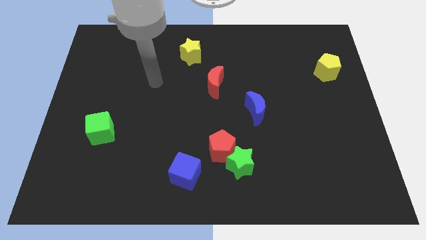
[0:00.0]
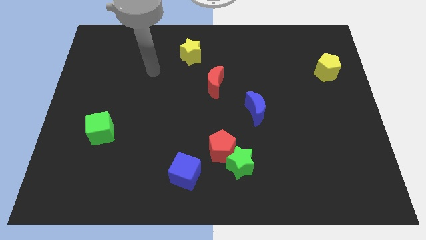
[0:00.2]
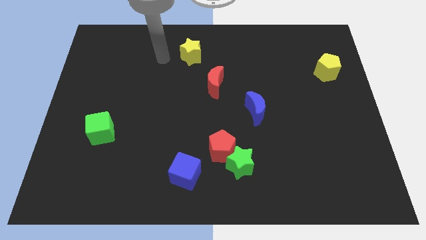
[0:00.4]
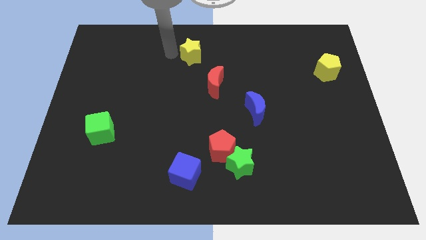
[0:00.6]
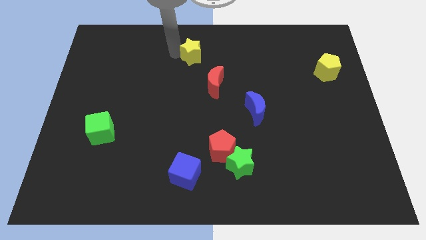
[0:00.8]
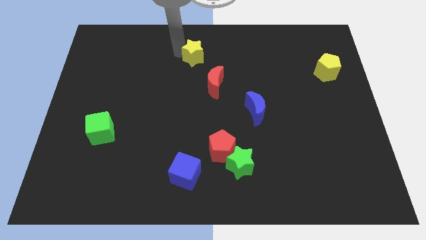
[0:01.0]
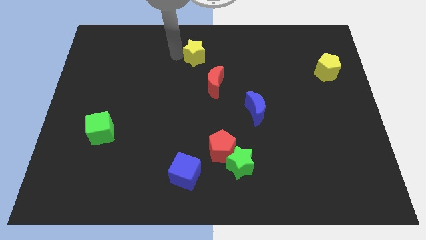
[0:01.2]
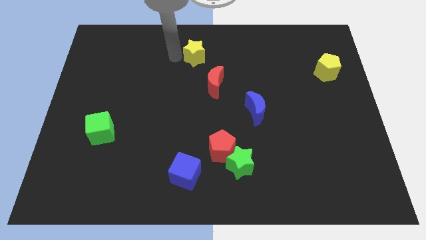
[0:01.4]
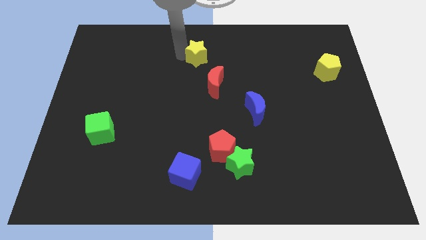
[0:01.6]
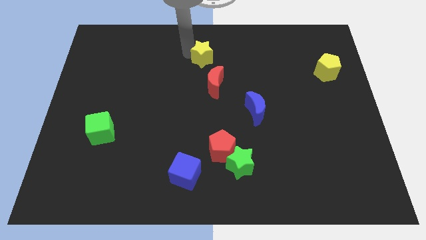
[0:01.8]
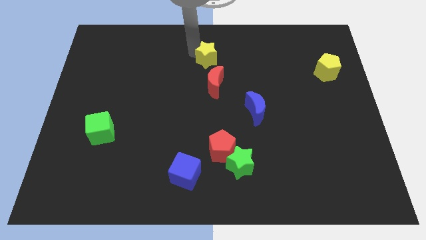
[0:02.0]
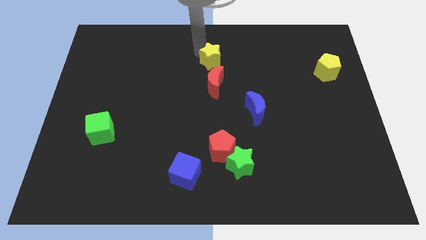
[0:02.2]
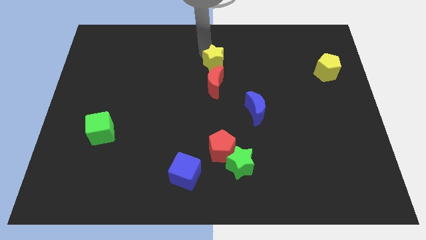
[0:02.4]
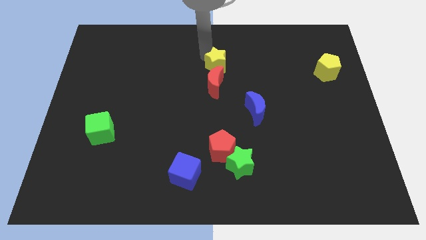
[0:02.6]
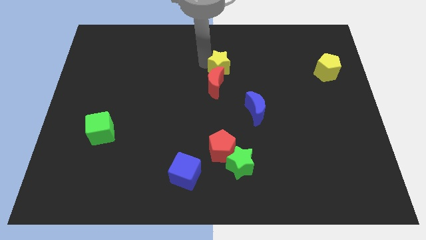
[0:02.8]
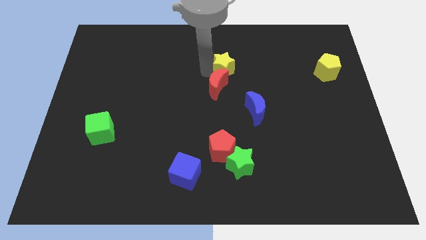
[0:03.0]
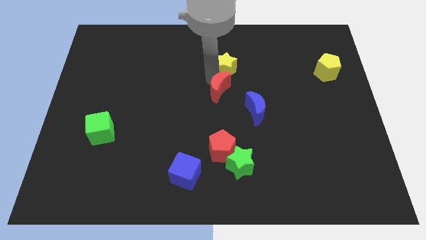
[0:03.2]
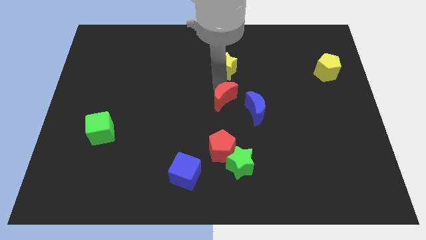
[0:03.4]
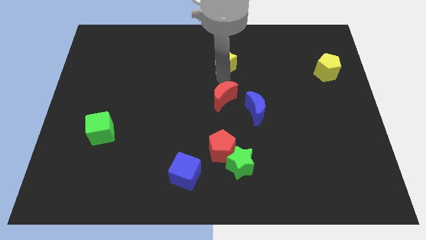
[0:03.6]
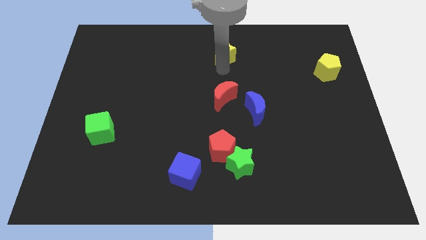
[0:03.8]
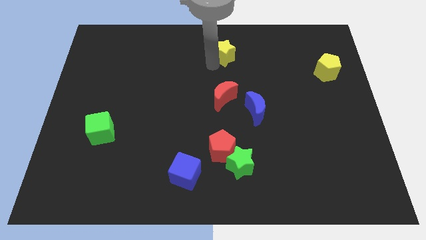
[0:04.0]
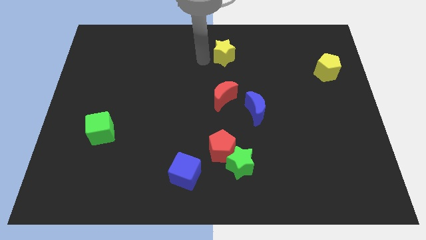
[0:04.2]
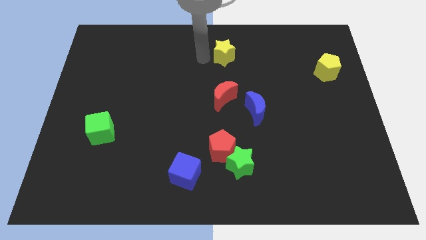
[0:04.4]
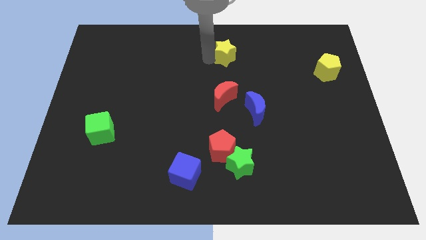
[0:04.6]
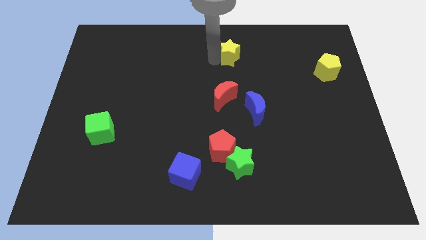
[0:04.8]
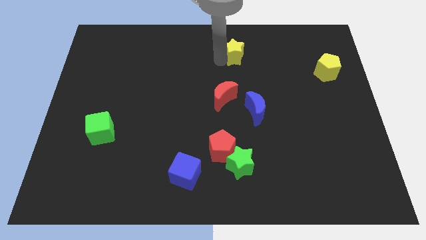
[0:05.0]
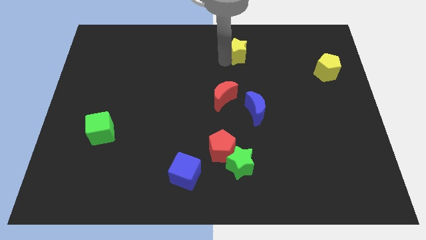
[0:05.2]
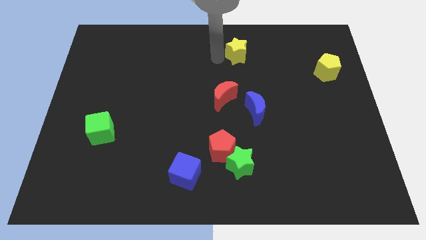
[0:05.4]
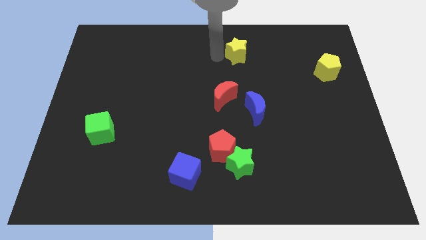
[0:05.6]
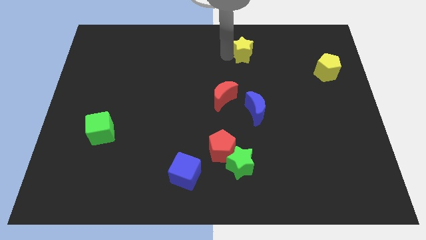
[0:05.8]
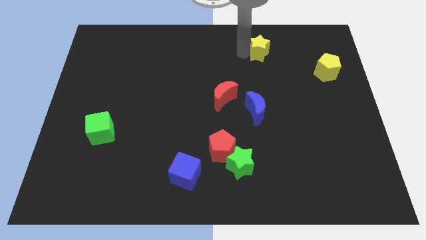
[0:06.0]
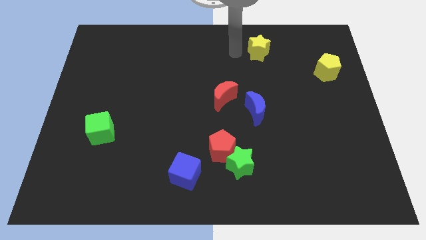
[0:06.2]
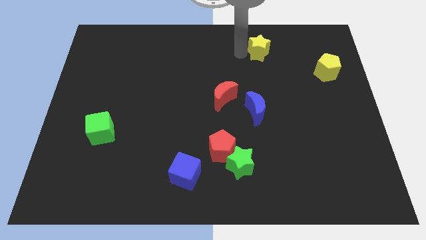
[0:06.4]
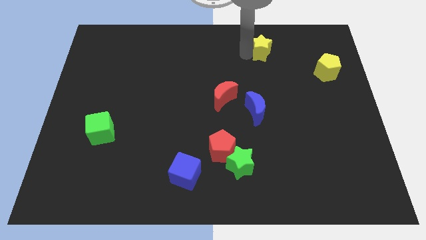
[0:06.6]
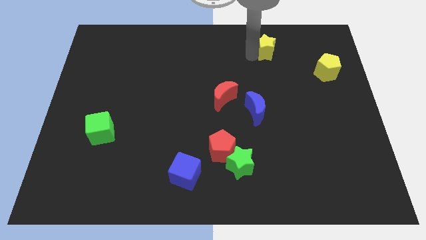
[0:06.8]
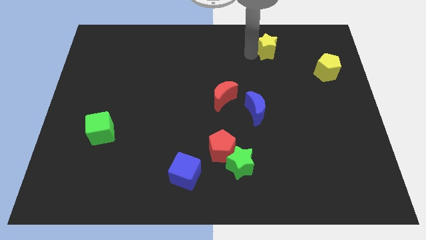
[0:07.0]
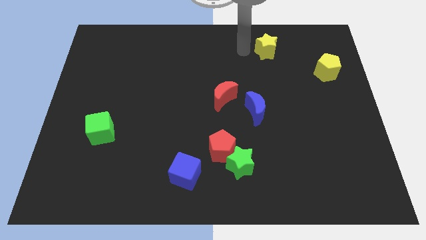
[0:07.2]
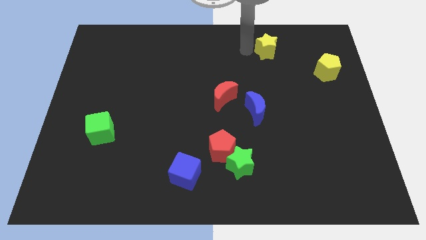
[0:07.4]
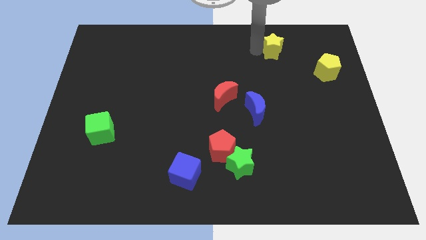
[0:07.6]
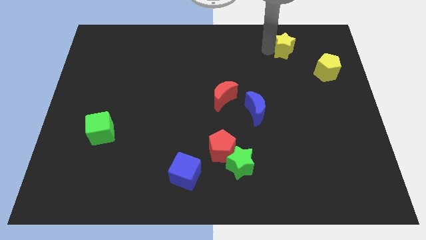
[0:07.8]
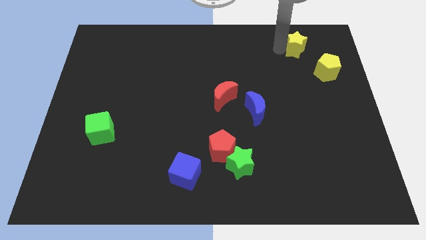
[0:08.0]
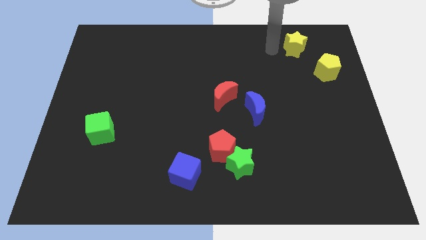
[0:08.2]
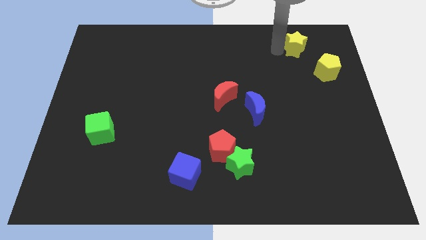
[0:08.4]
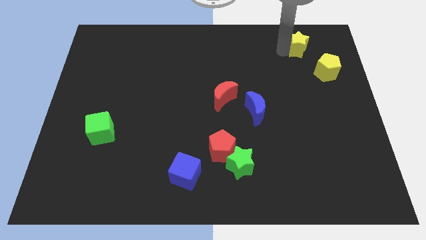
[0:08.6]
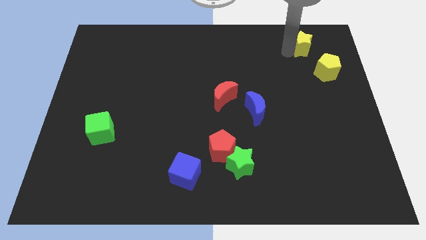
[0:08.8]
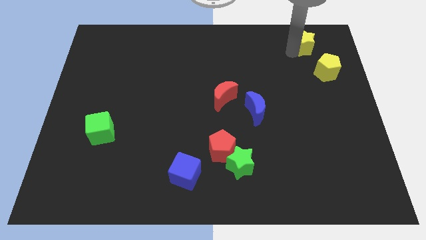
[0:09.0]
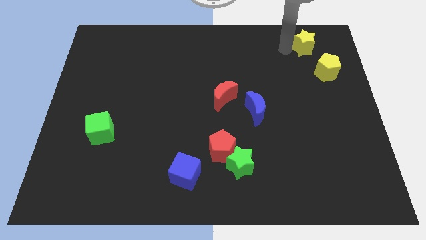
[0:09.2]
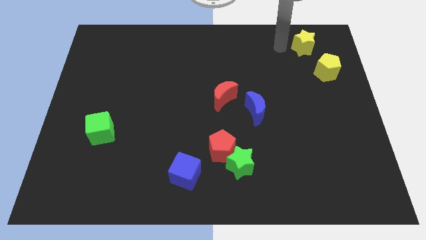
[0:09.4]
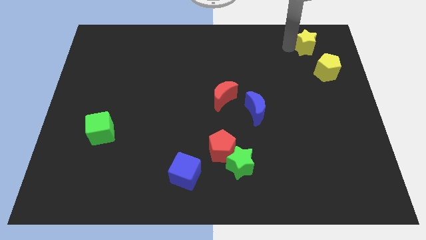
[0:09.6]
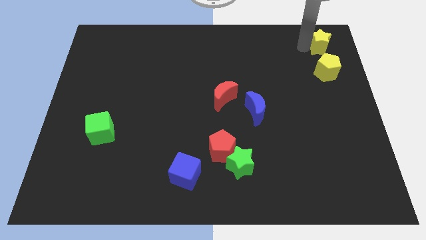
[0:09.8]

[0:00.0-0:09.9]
put the yellow star to the top right corner

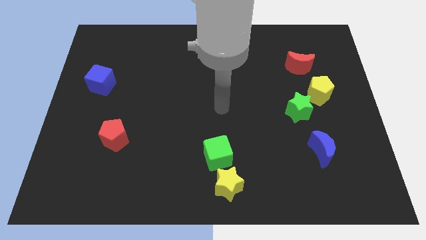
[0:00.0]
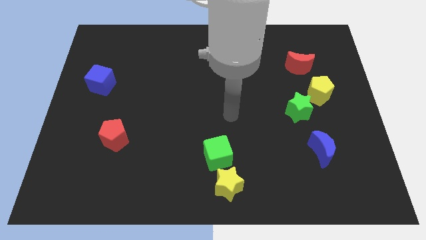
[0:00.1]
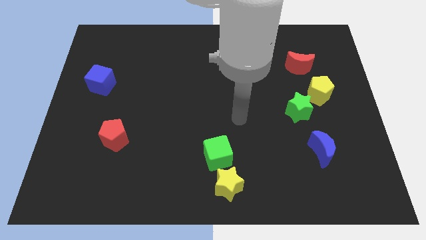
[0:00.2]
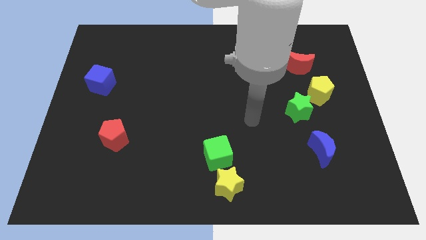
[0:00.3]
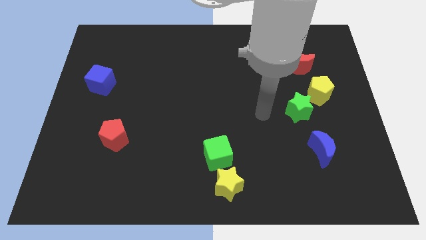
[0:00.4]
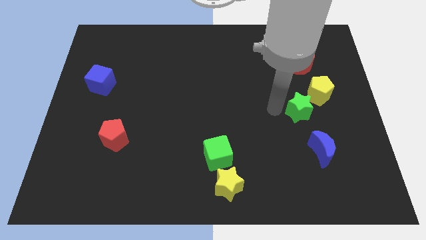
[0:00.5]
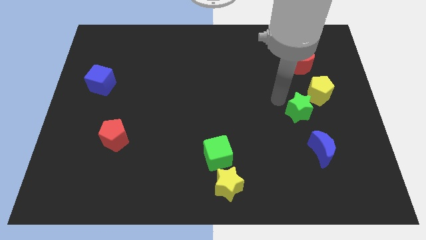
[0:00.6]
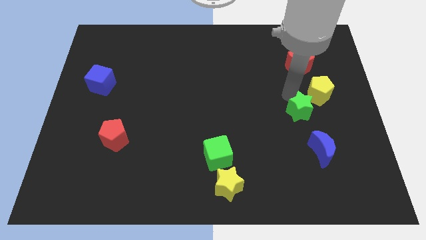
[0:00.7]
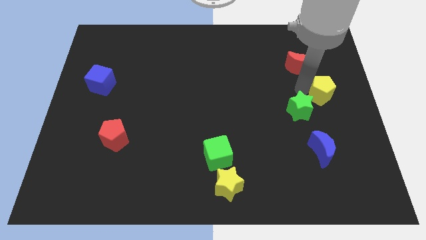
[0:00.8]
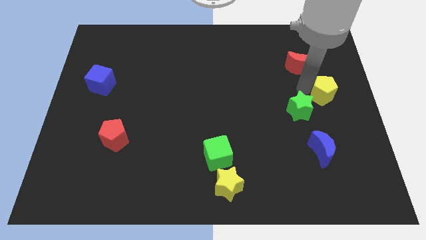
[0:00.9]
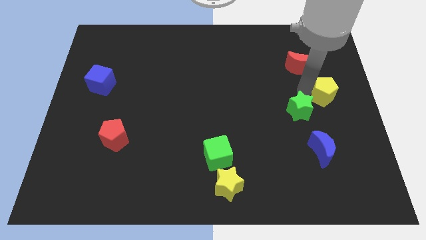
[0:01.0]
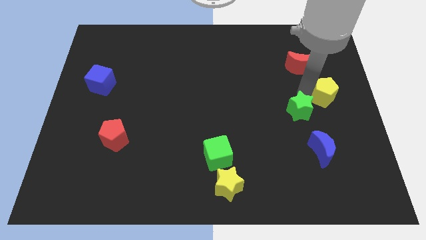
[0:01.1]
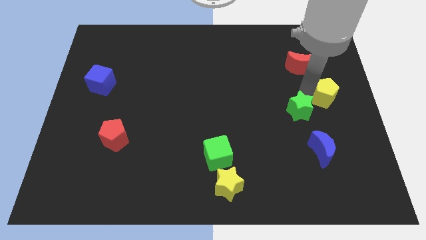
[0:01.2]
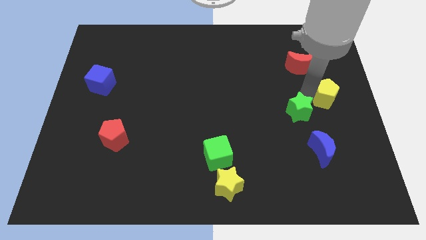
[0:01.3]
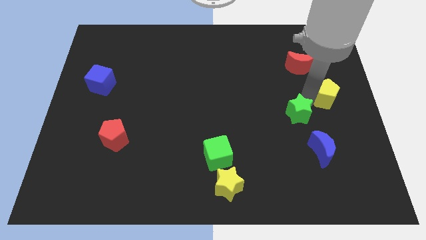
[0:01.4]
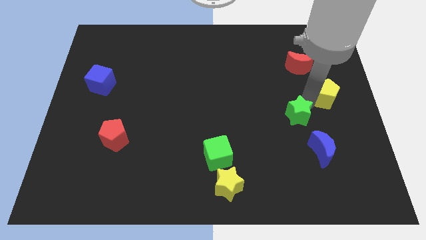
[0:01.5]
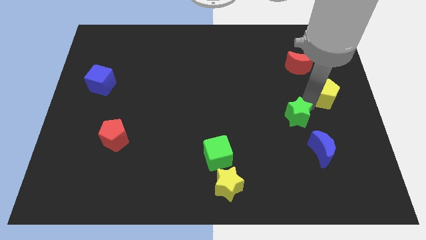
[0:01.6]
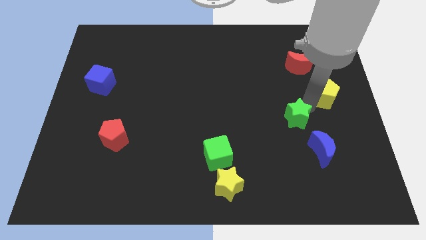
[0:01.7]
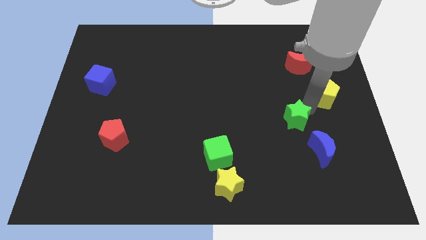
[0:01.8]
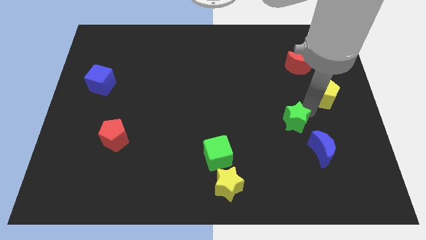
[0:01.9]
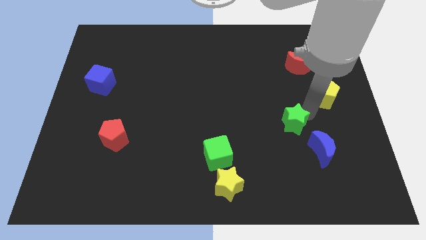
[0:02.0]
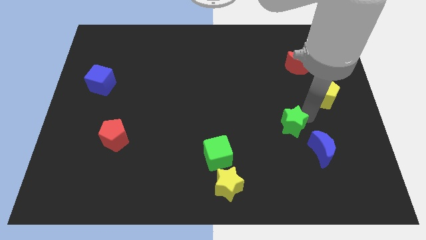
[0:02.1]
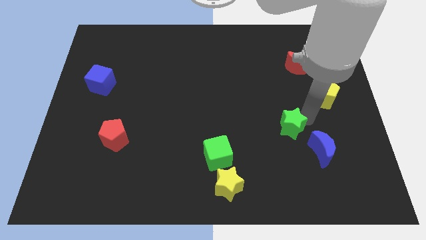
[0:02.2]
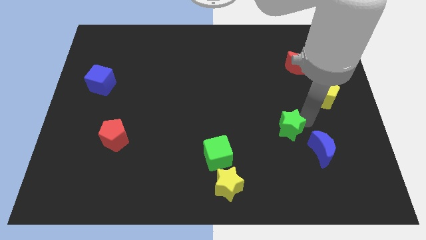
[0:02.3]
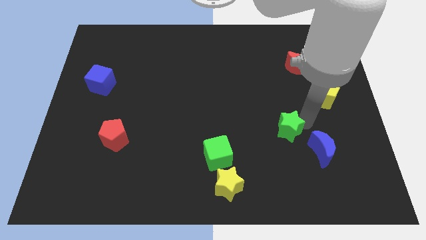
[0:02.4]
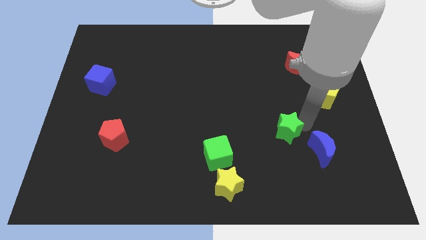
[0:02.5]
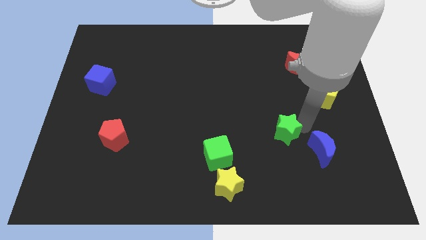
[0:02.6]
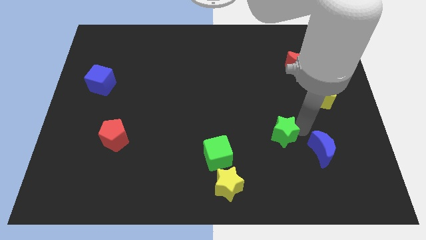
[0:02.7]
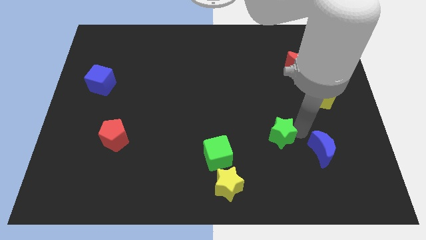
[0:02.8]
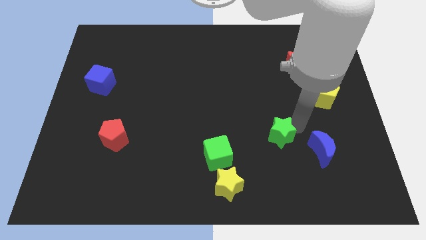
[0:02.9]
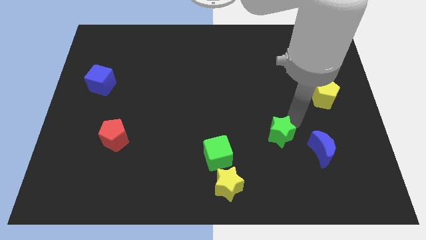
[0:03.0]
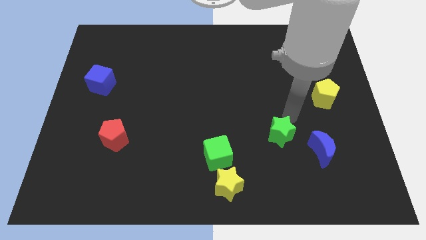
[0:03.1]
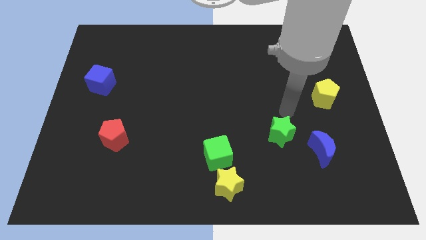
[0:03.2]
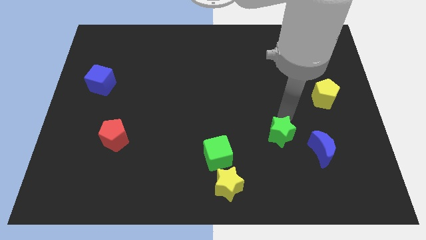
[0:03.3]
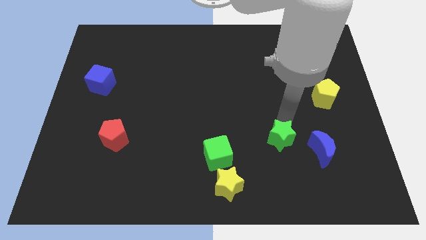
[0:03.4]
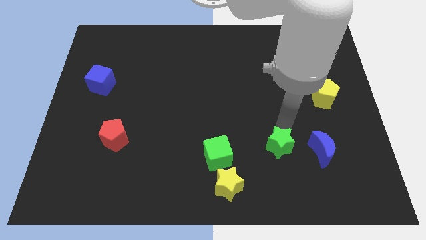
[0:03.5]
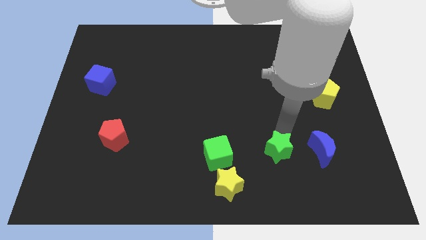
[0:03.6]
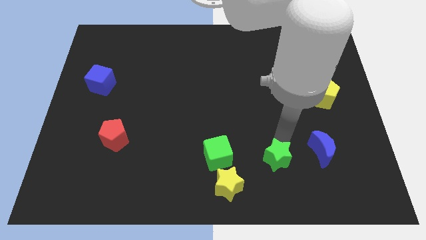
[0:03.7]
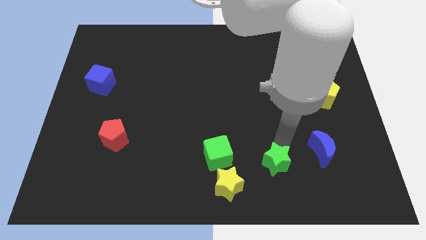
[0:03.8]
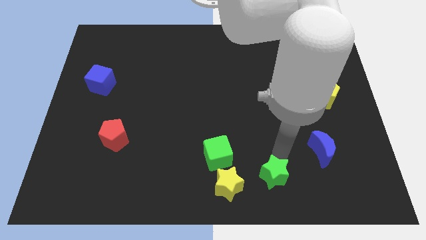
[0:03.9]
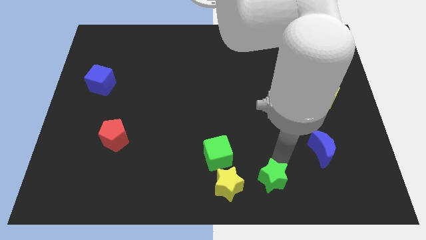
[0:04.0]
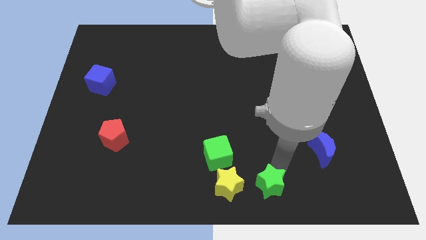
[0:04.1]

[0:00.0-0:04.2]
put the green star to the bottom side
